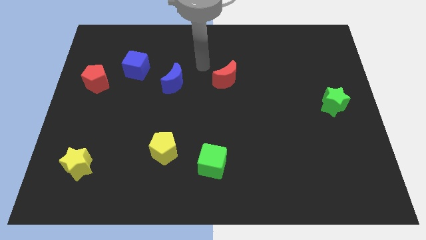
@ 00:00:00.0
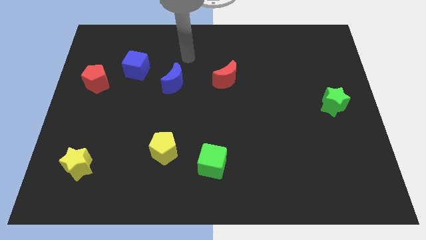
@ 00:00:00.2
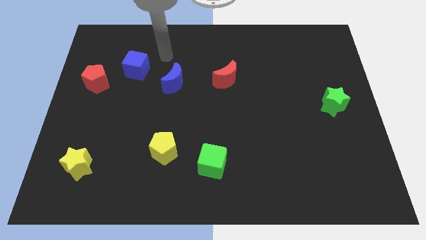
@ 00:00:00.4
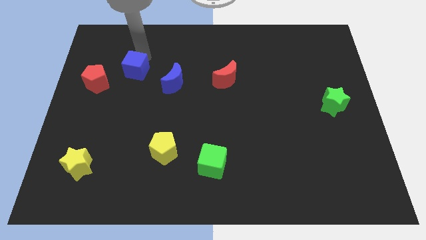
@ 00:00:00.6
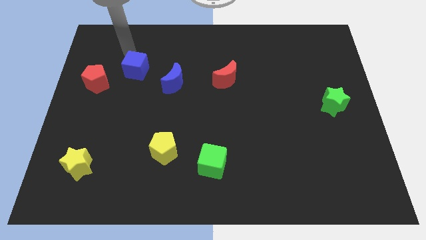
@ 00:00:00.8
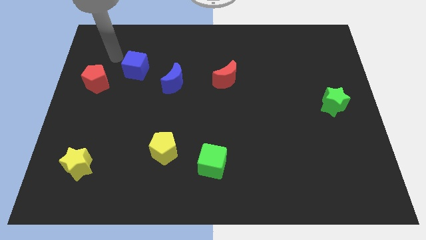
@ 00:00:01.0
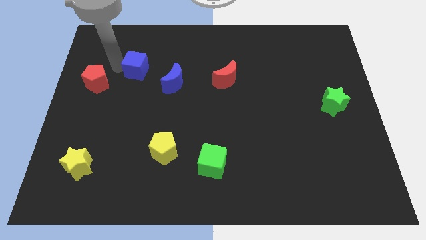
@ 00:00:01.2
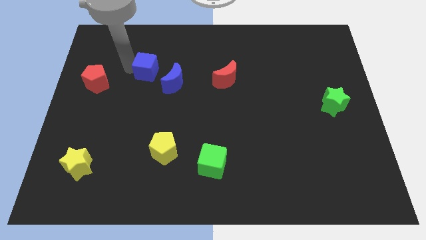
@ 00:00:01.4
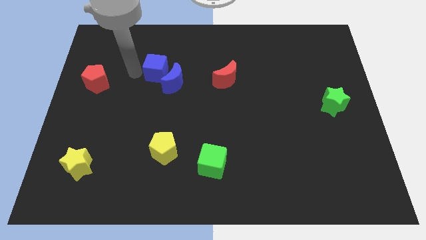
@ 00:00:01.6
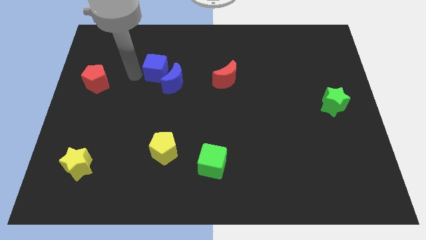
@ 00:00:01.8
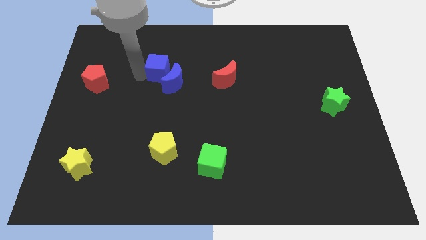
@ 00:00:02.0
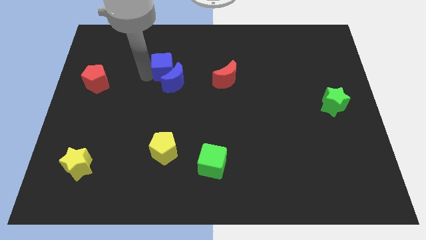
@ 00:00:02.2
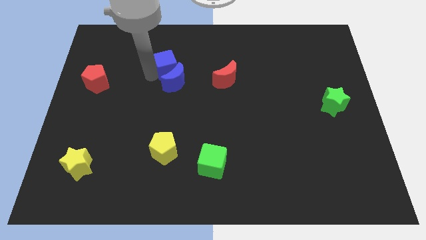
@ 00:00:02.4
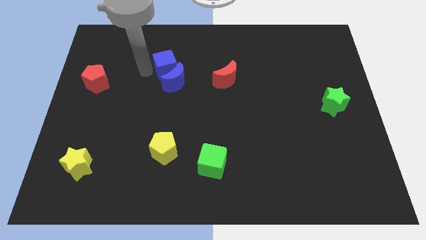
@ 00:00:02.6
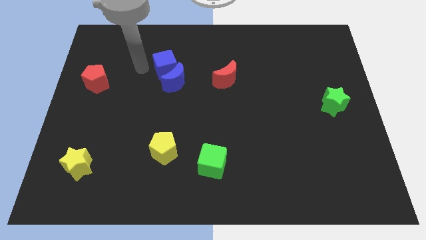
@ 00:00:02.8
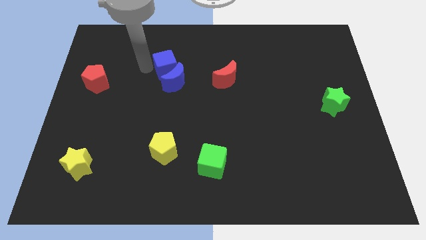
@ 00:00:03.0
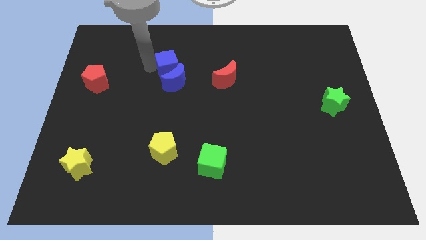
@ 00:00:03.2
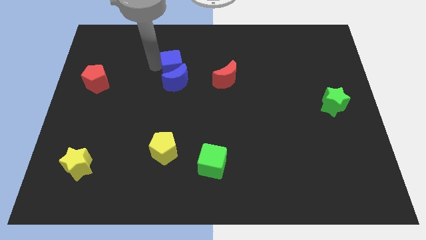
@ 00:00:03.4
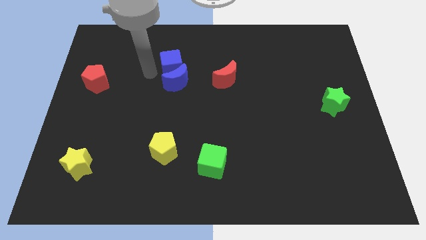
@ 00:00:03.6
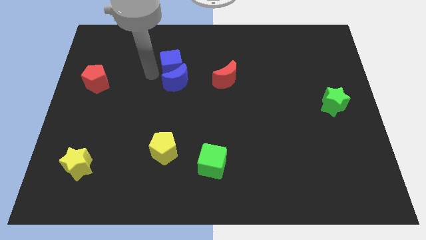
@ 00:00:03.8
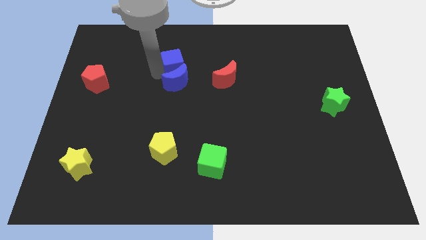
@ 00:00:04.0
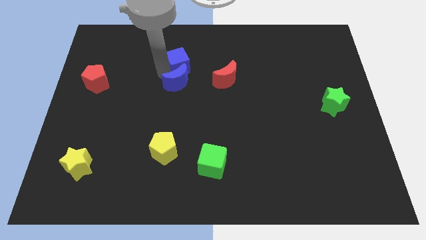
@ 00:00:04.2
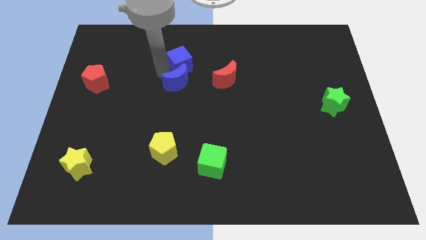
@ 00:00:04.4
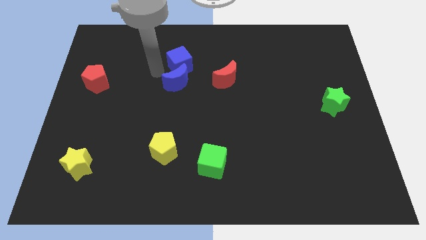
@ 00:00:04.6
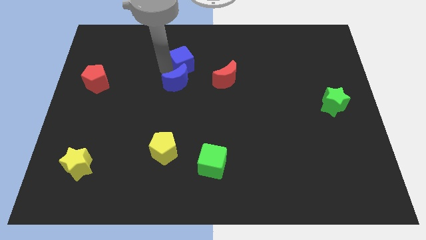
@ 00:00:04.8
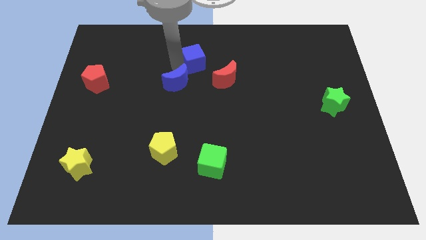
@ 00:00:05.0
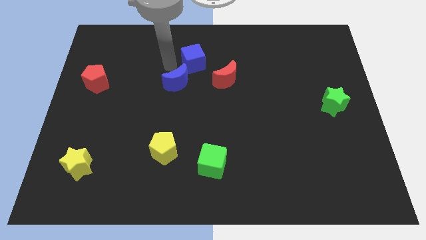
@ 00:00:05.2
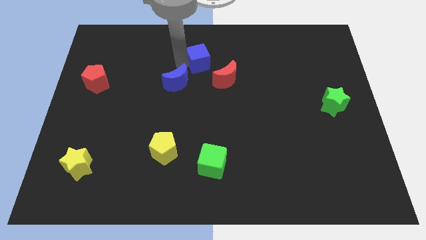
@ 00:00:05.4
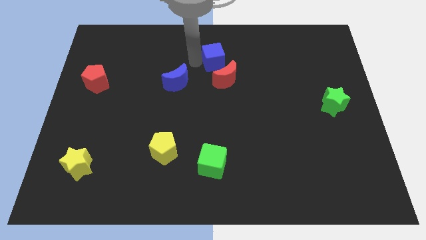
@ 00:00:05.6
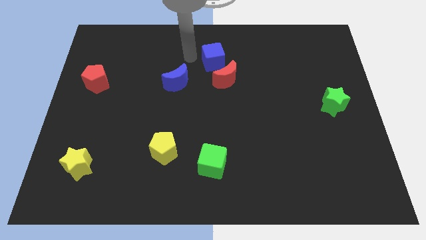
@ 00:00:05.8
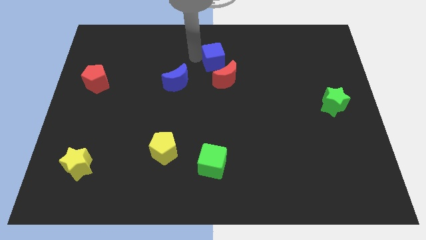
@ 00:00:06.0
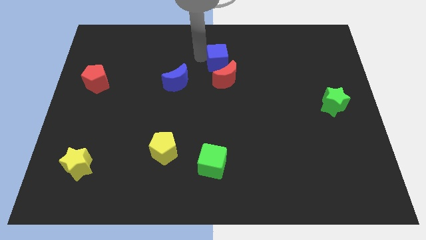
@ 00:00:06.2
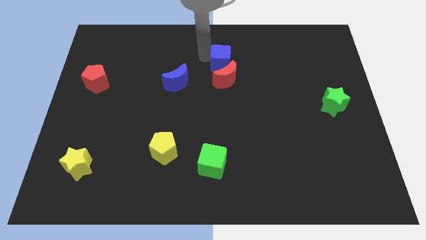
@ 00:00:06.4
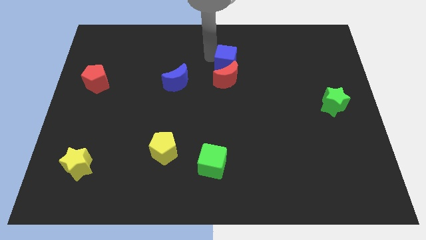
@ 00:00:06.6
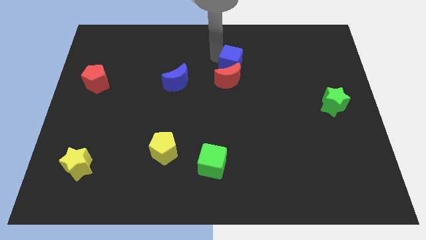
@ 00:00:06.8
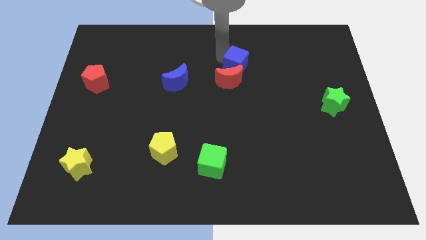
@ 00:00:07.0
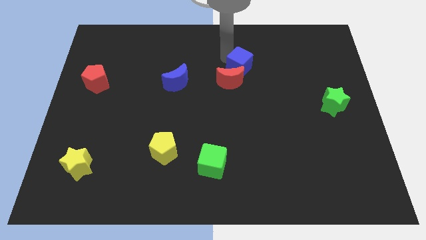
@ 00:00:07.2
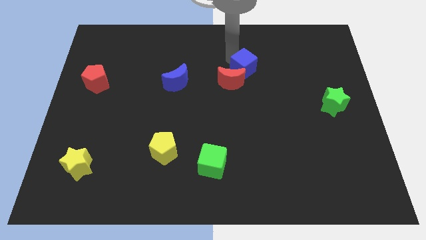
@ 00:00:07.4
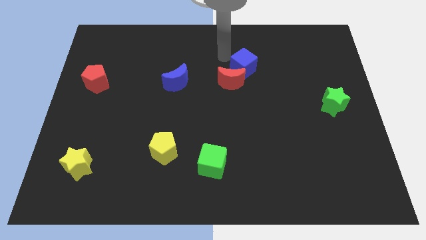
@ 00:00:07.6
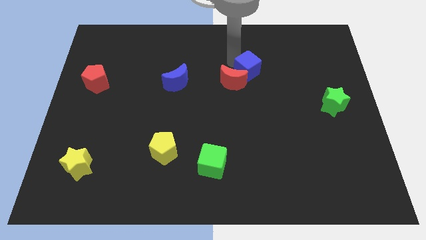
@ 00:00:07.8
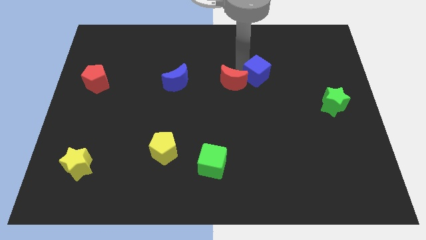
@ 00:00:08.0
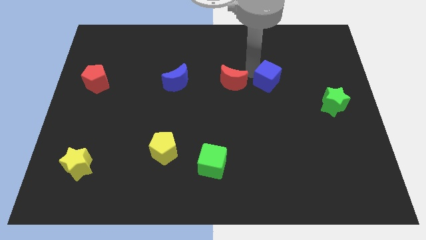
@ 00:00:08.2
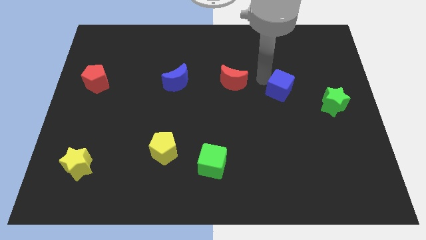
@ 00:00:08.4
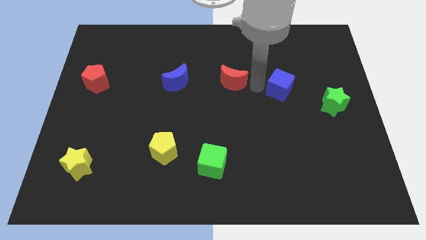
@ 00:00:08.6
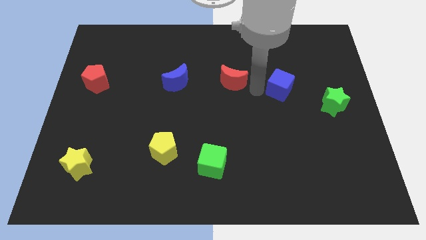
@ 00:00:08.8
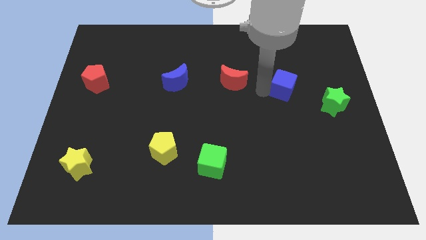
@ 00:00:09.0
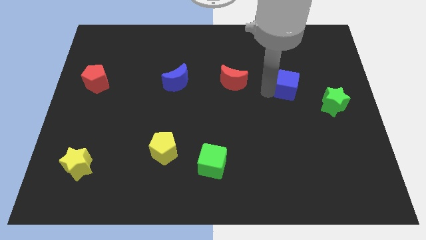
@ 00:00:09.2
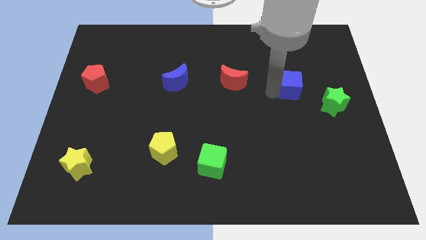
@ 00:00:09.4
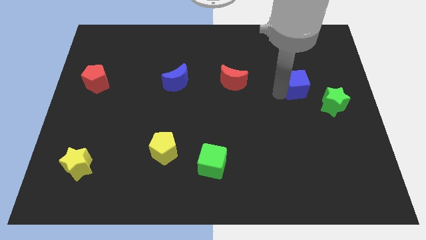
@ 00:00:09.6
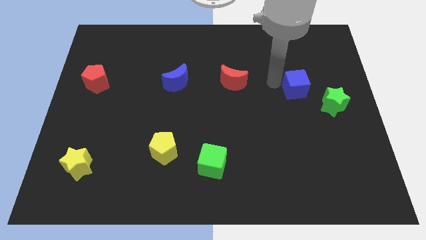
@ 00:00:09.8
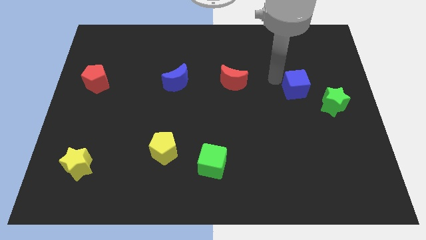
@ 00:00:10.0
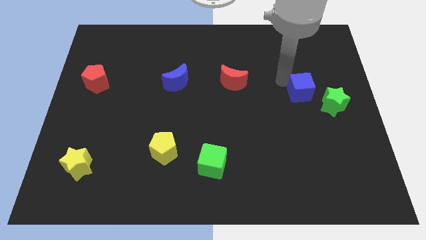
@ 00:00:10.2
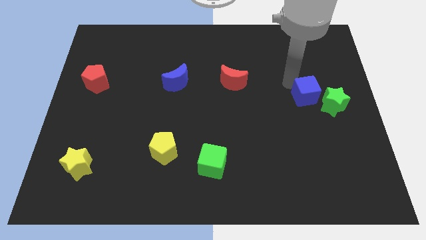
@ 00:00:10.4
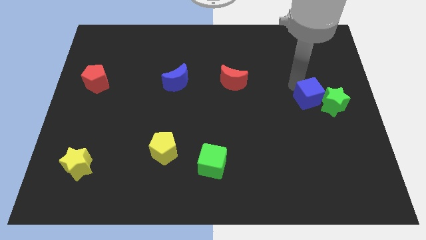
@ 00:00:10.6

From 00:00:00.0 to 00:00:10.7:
slide the blue cube next to the green star
